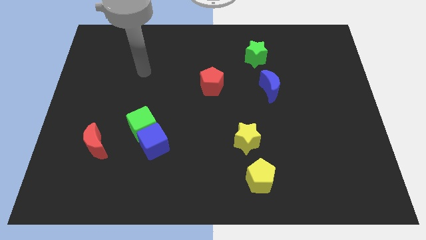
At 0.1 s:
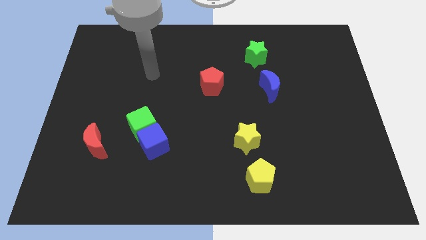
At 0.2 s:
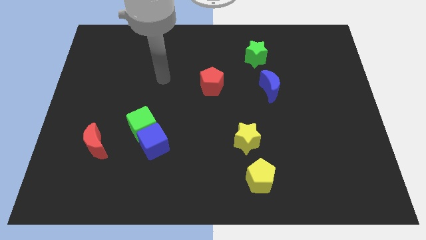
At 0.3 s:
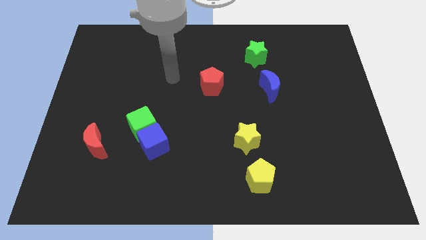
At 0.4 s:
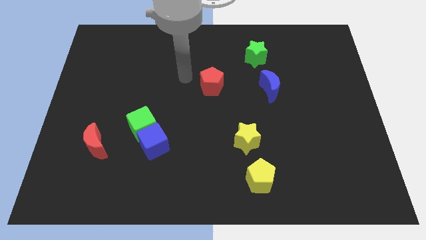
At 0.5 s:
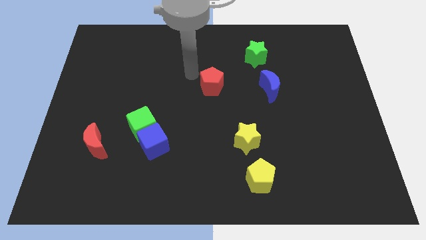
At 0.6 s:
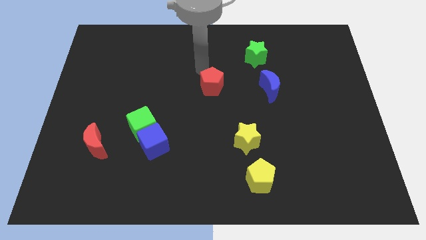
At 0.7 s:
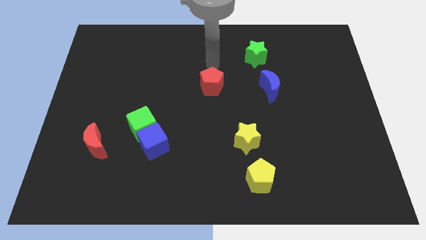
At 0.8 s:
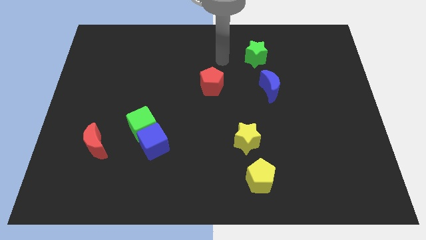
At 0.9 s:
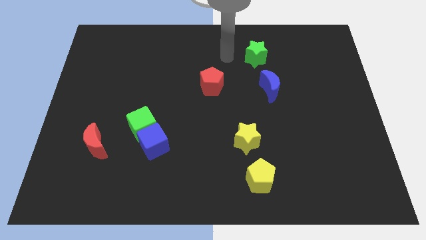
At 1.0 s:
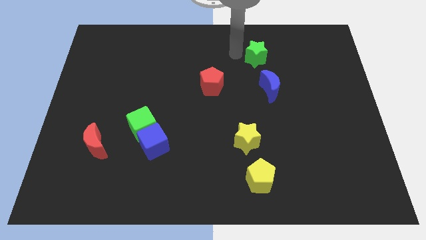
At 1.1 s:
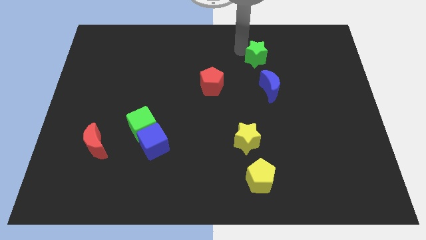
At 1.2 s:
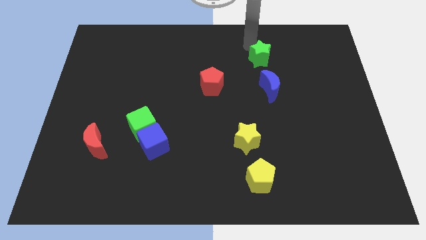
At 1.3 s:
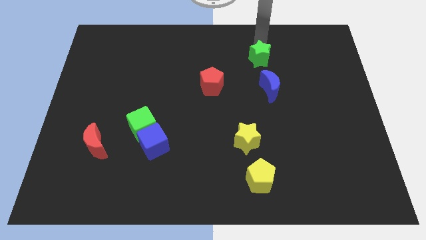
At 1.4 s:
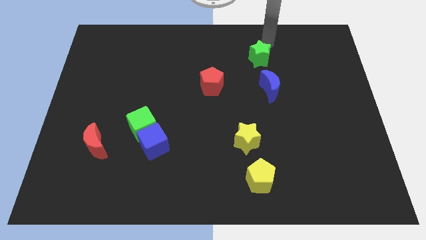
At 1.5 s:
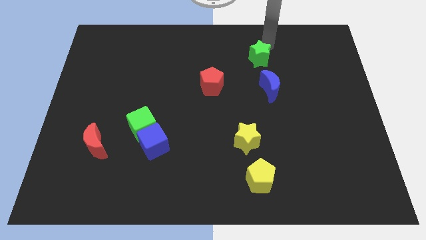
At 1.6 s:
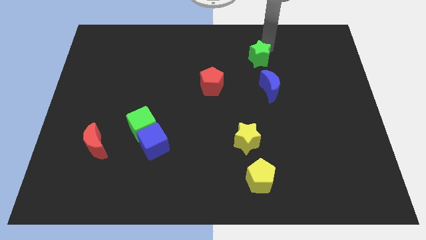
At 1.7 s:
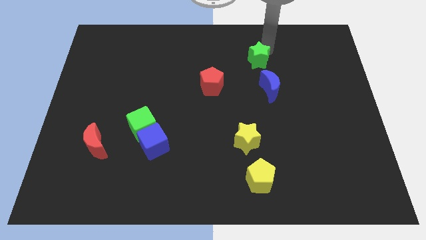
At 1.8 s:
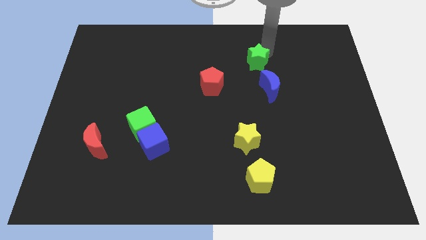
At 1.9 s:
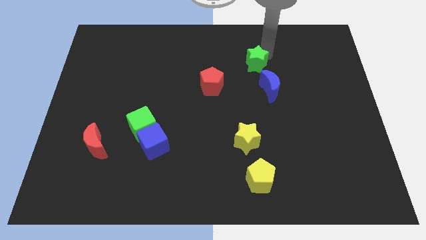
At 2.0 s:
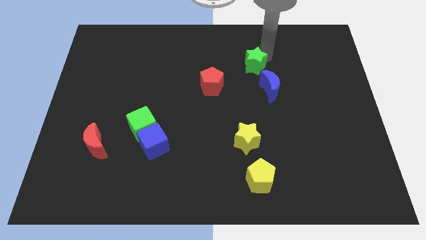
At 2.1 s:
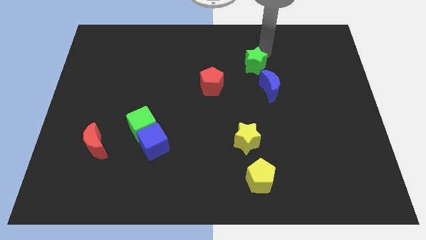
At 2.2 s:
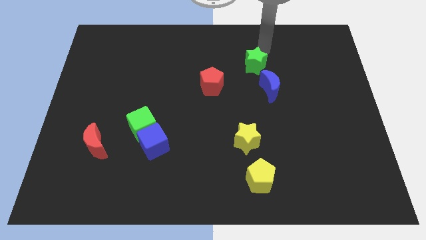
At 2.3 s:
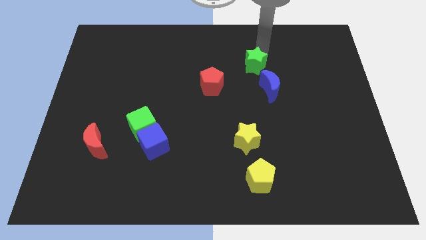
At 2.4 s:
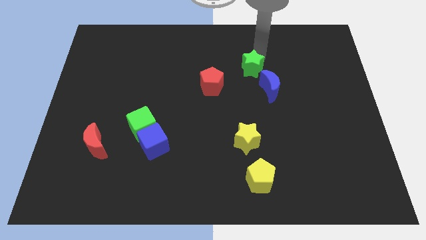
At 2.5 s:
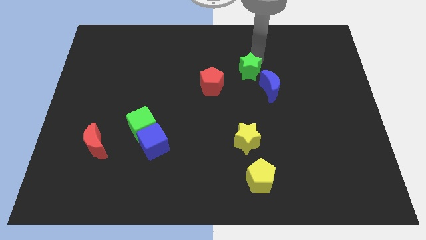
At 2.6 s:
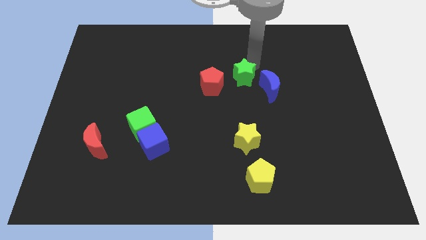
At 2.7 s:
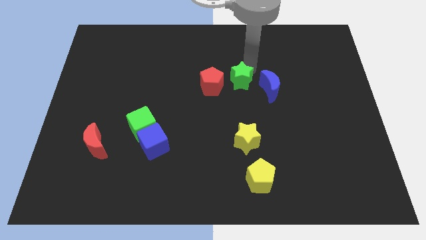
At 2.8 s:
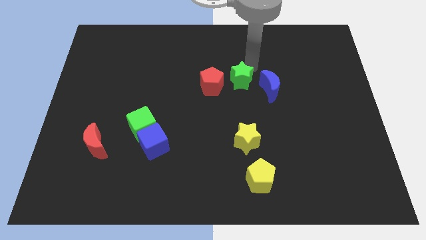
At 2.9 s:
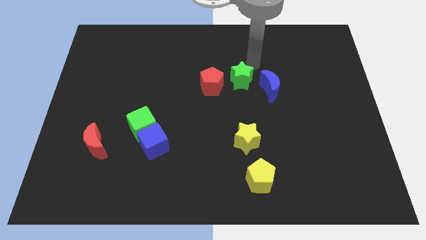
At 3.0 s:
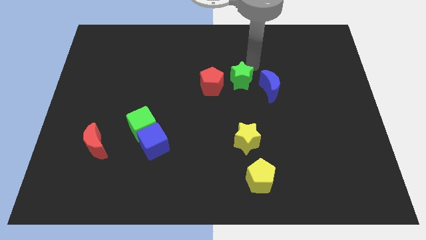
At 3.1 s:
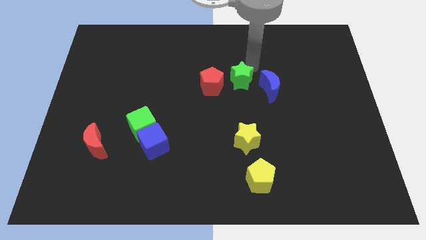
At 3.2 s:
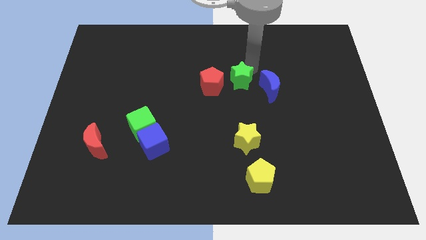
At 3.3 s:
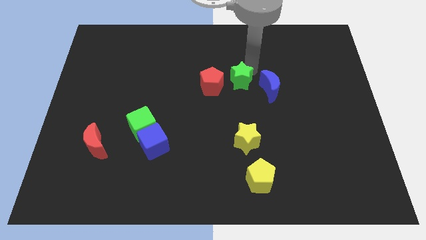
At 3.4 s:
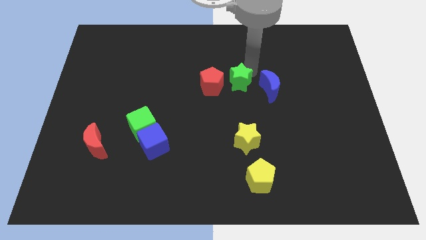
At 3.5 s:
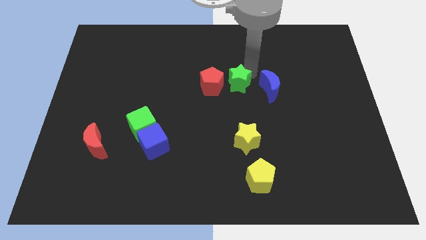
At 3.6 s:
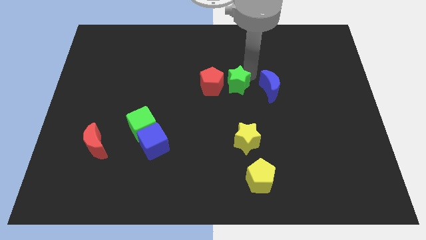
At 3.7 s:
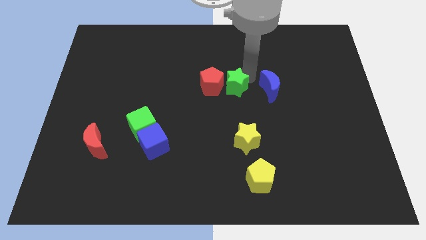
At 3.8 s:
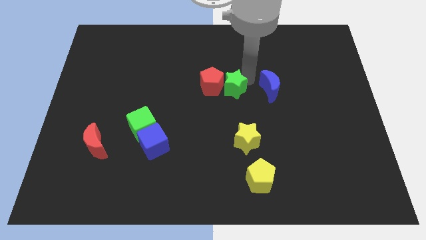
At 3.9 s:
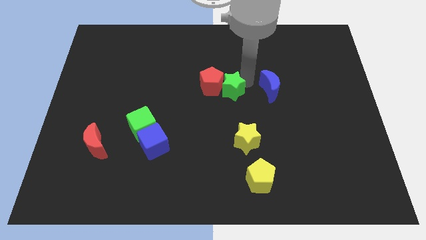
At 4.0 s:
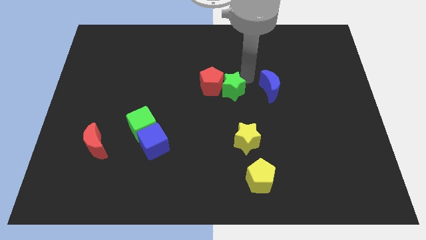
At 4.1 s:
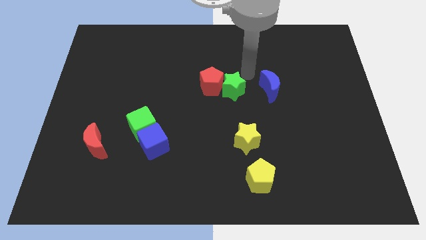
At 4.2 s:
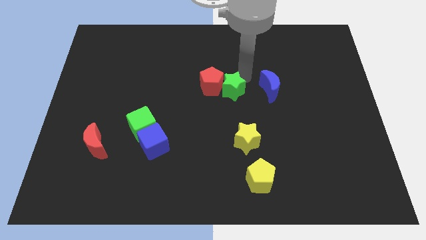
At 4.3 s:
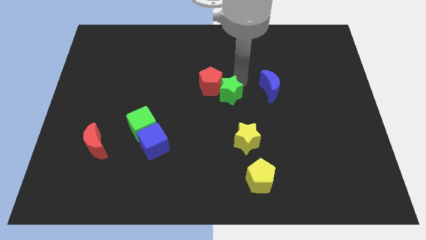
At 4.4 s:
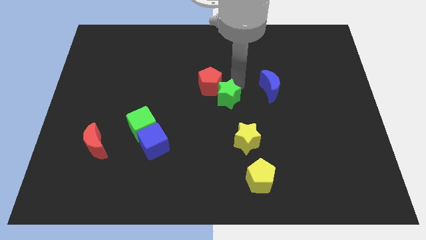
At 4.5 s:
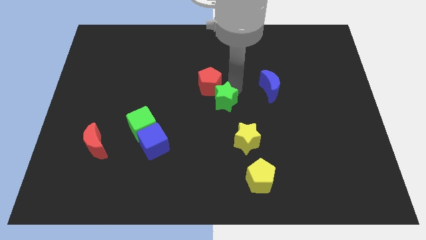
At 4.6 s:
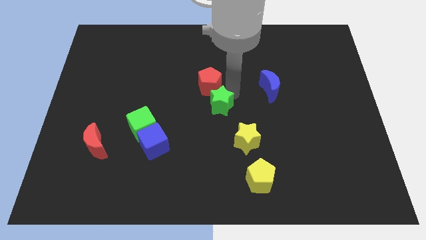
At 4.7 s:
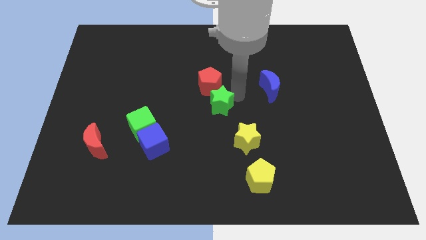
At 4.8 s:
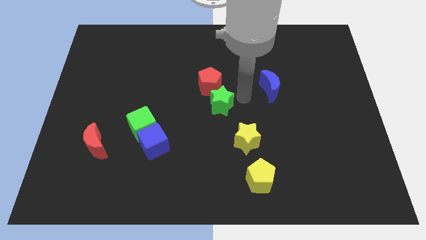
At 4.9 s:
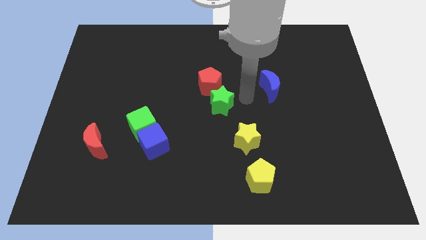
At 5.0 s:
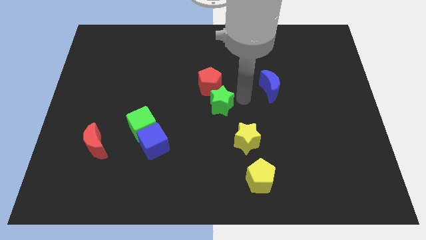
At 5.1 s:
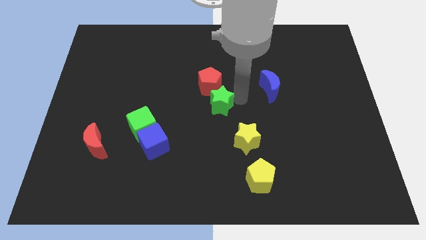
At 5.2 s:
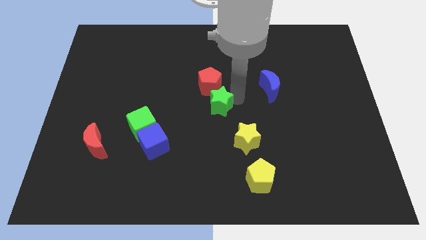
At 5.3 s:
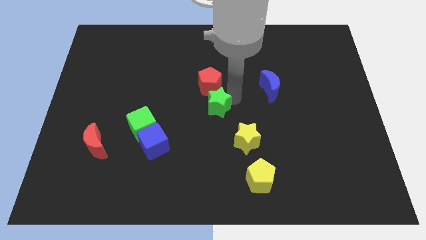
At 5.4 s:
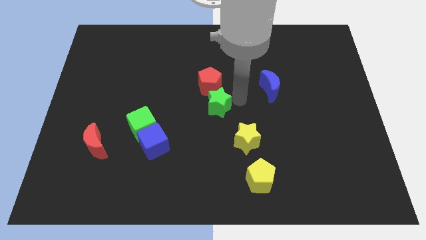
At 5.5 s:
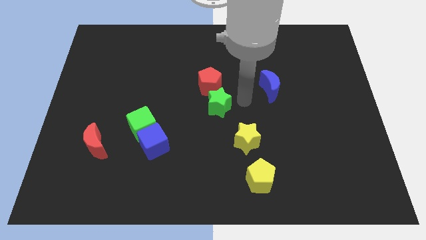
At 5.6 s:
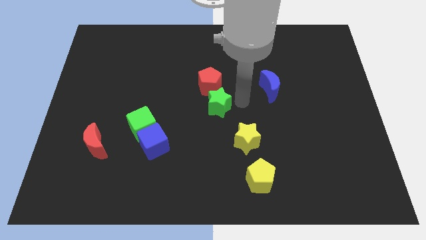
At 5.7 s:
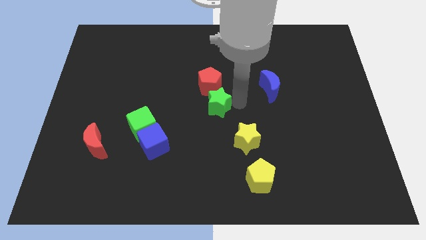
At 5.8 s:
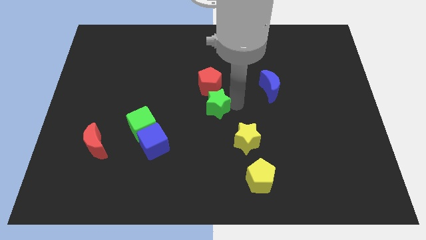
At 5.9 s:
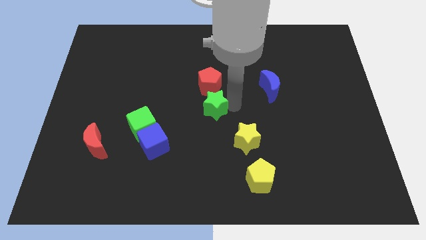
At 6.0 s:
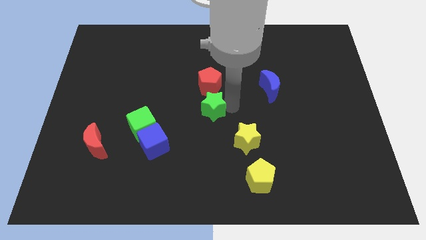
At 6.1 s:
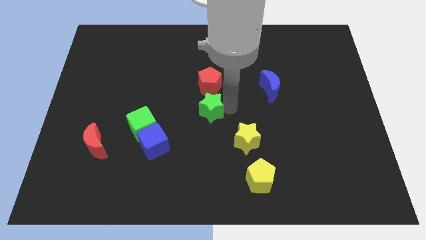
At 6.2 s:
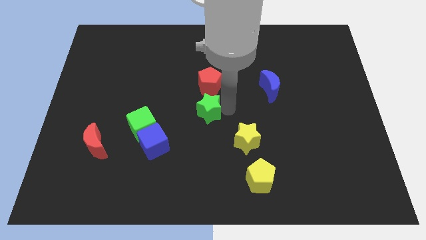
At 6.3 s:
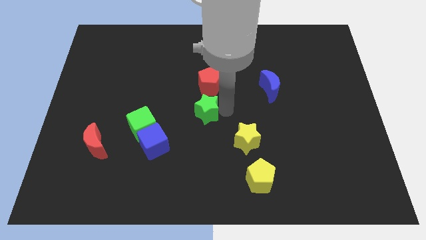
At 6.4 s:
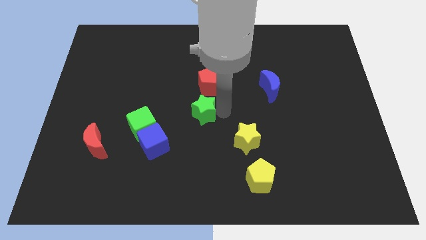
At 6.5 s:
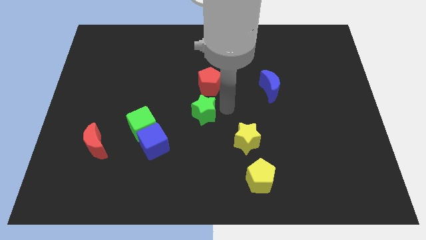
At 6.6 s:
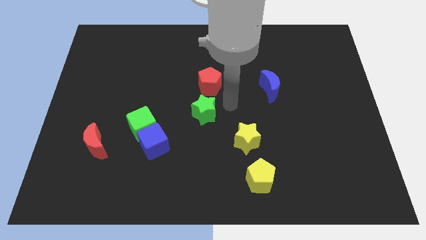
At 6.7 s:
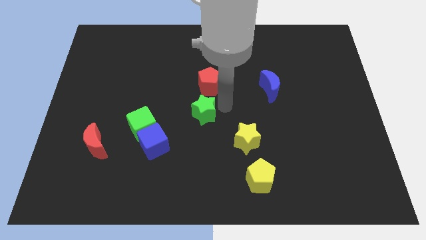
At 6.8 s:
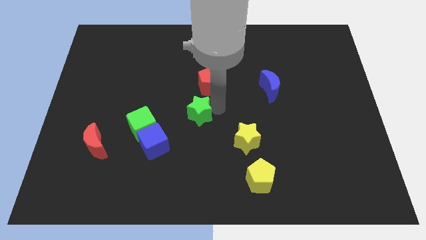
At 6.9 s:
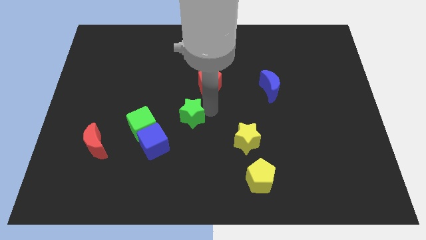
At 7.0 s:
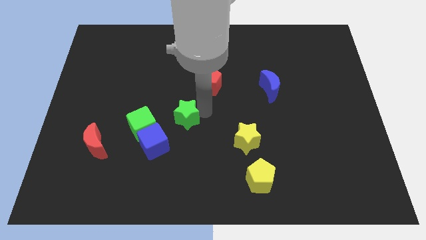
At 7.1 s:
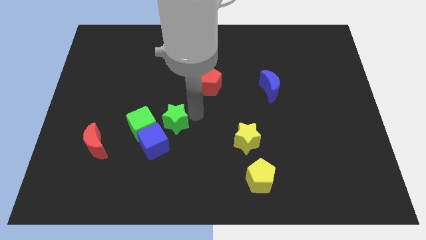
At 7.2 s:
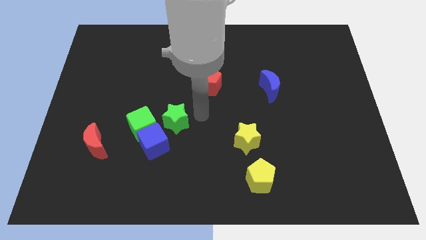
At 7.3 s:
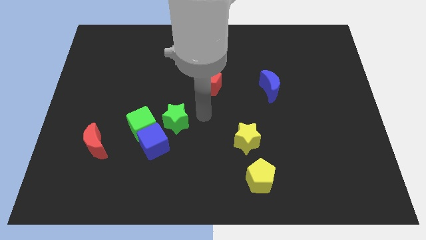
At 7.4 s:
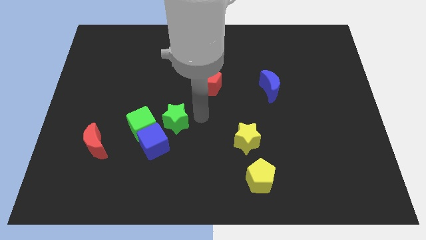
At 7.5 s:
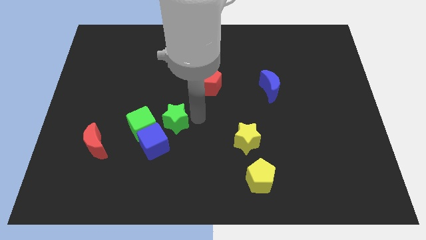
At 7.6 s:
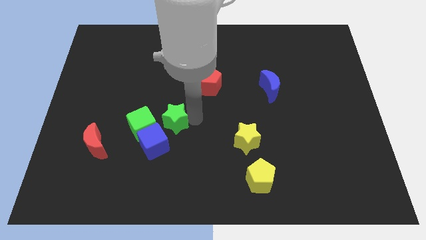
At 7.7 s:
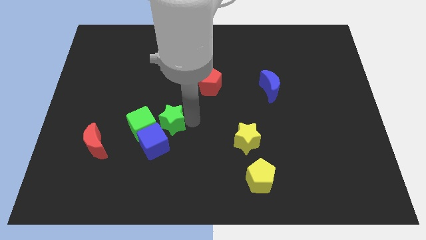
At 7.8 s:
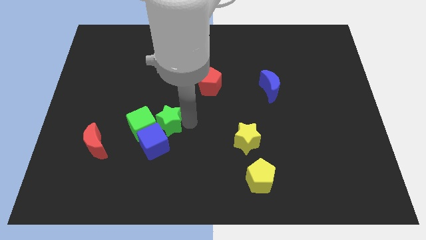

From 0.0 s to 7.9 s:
push the green star towards the green cube
